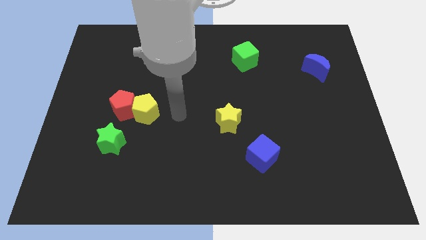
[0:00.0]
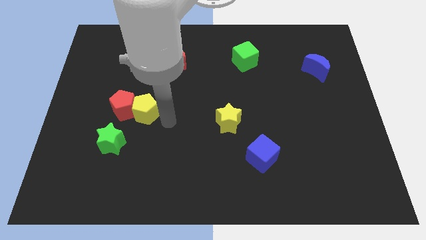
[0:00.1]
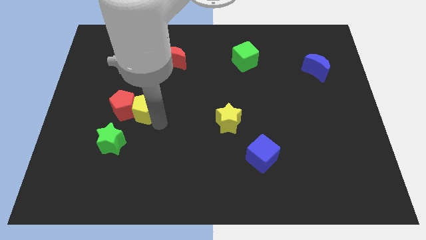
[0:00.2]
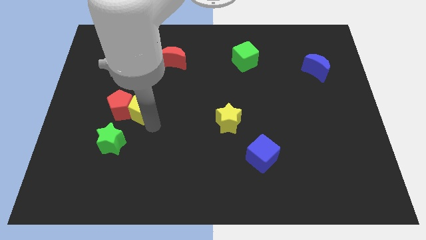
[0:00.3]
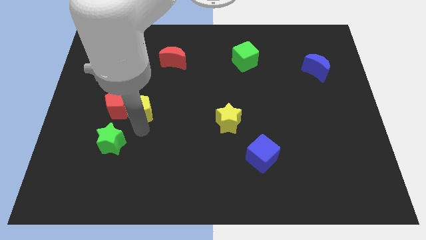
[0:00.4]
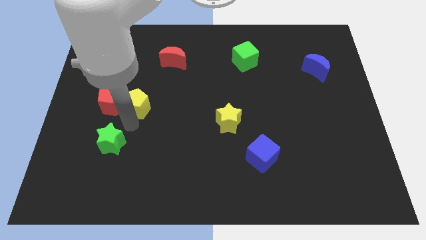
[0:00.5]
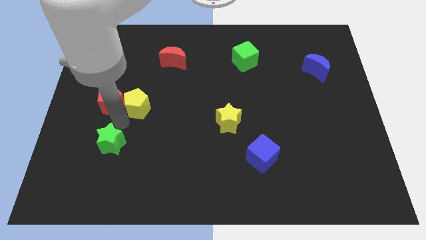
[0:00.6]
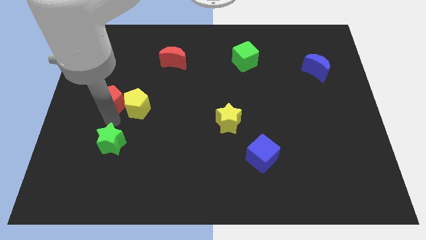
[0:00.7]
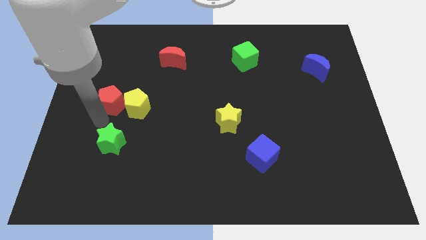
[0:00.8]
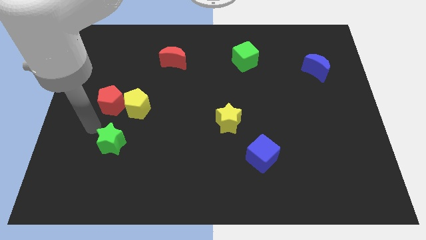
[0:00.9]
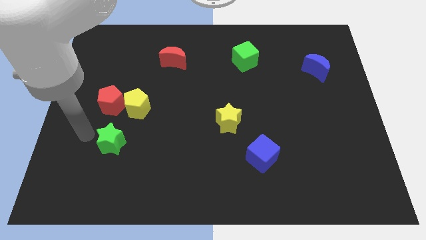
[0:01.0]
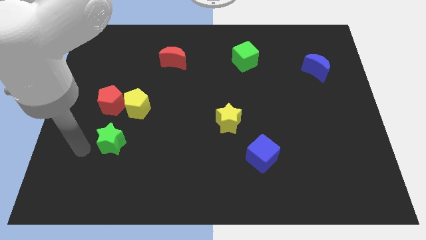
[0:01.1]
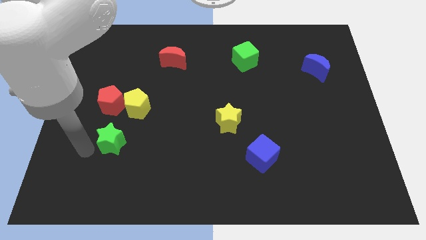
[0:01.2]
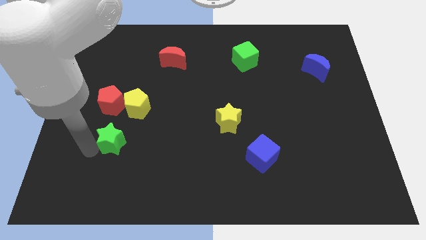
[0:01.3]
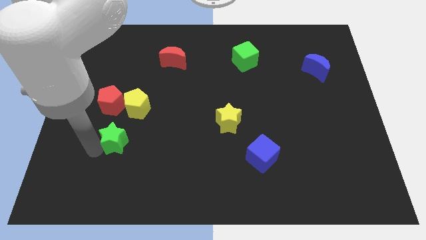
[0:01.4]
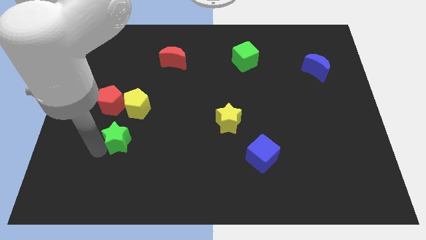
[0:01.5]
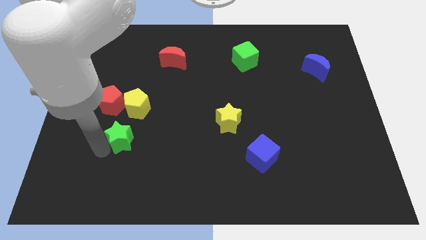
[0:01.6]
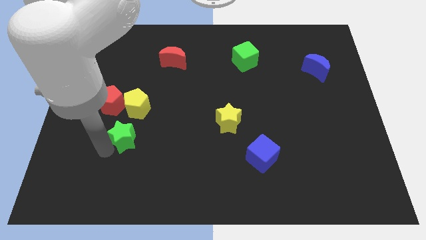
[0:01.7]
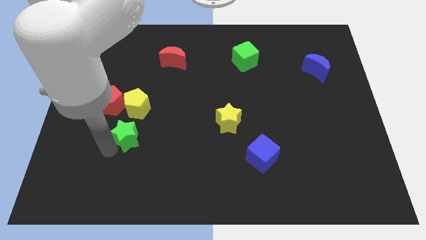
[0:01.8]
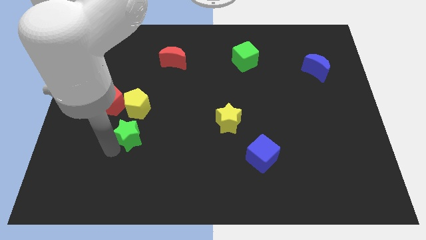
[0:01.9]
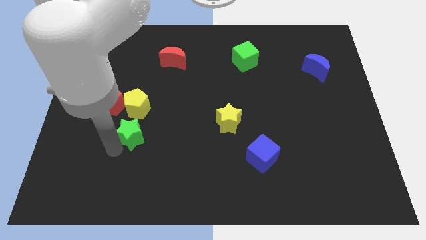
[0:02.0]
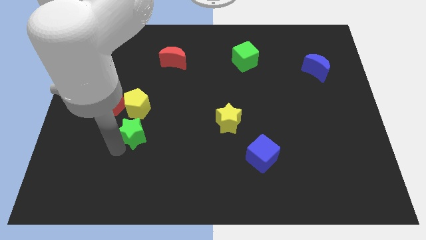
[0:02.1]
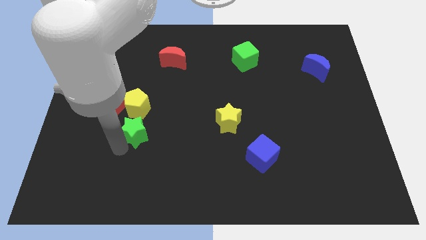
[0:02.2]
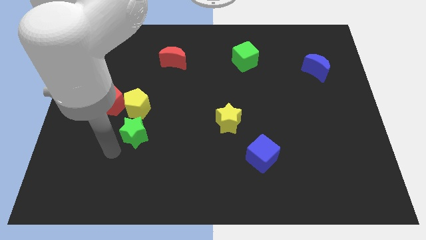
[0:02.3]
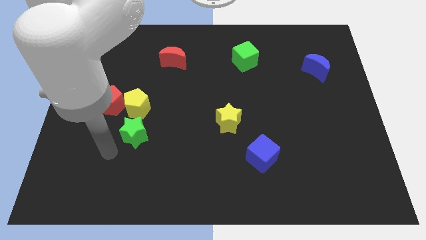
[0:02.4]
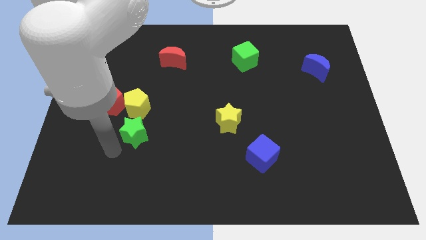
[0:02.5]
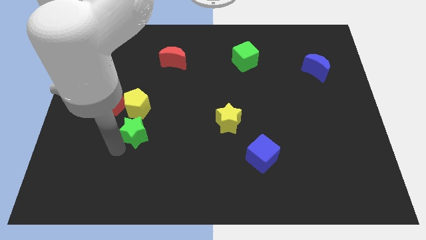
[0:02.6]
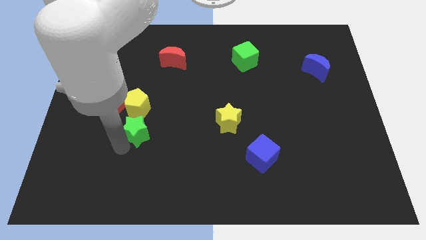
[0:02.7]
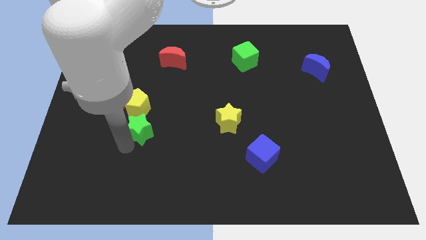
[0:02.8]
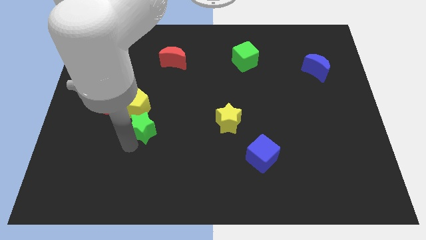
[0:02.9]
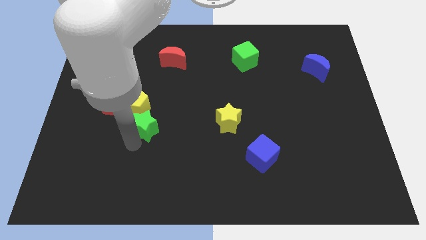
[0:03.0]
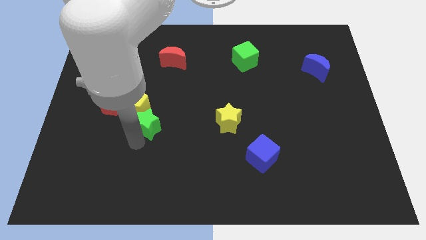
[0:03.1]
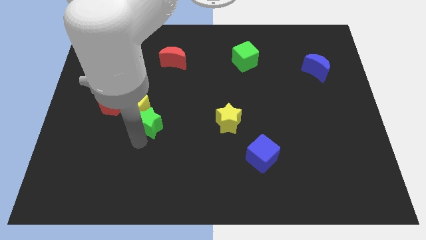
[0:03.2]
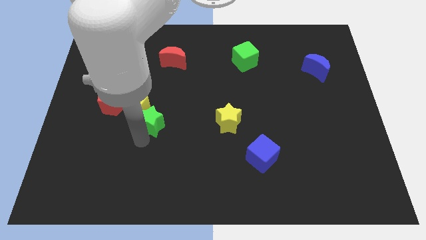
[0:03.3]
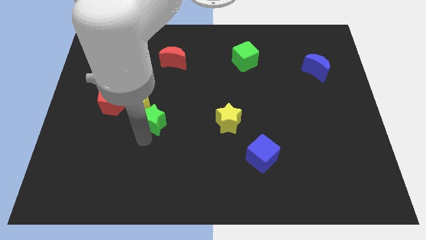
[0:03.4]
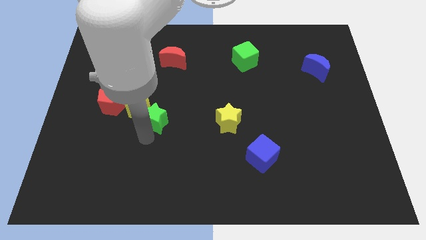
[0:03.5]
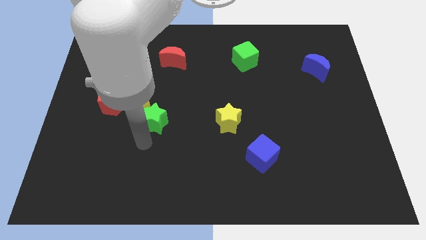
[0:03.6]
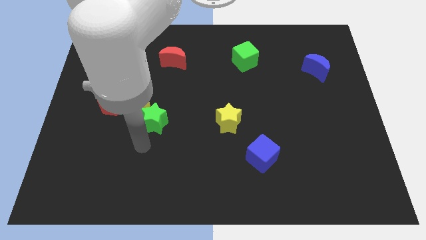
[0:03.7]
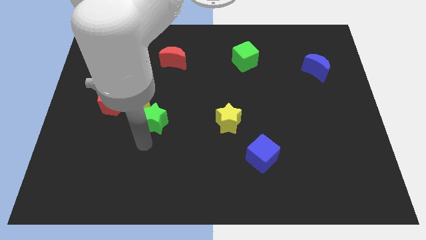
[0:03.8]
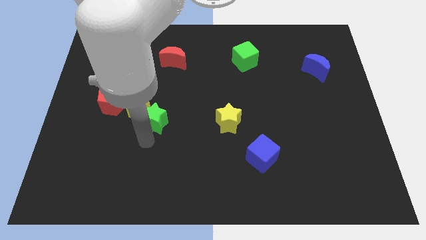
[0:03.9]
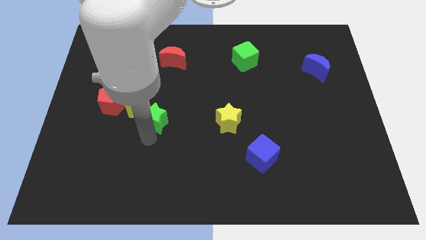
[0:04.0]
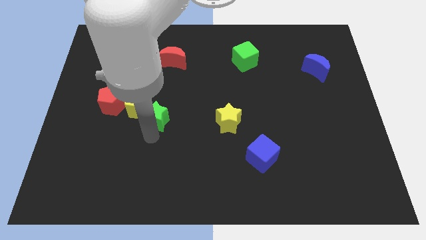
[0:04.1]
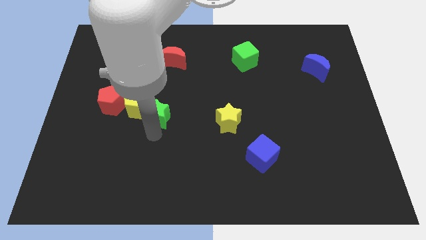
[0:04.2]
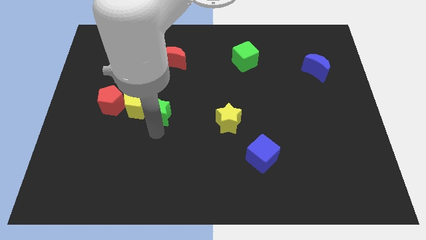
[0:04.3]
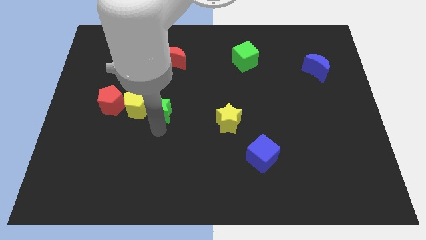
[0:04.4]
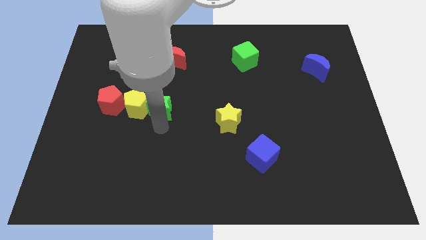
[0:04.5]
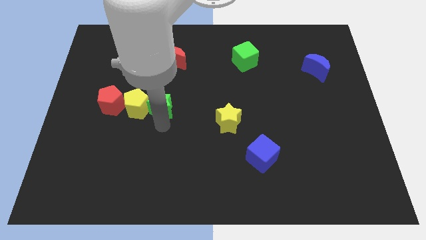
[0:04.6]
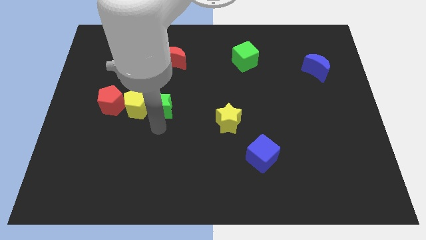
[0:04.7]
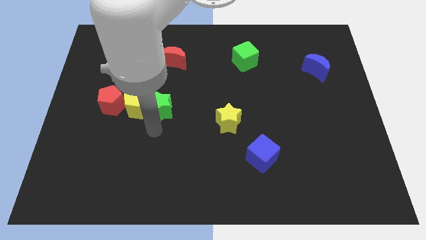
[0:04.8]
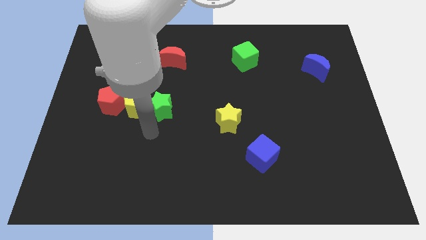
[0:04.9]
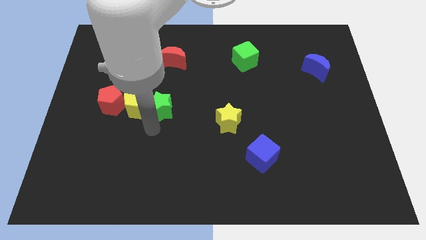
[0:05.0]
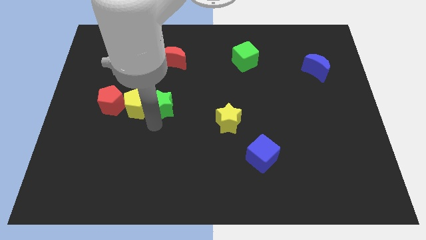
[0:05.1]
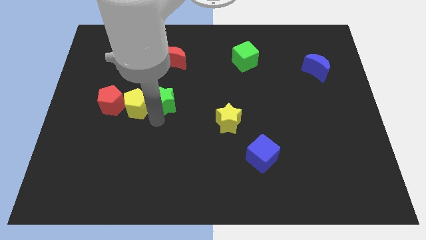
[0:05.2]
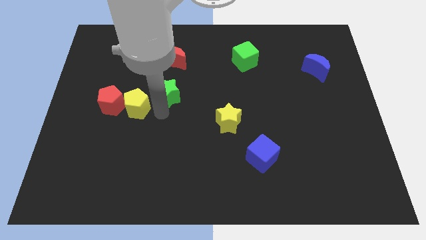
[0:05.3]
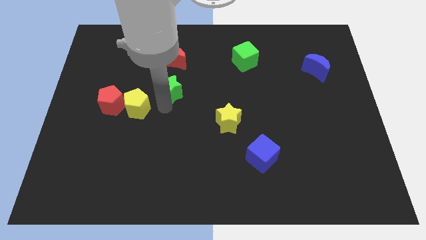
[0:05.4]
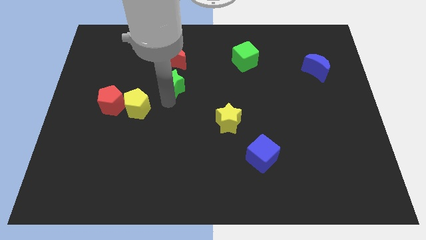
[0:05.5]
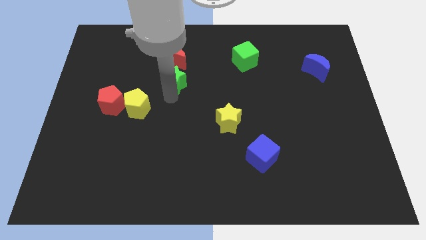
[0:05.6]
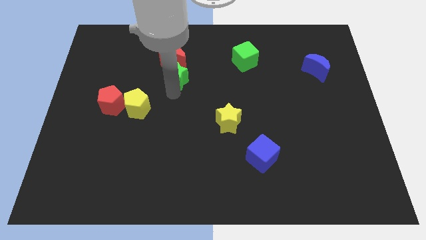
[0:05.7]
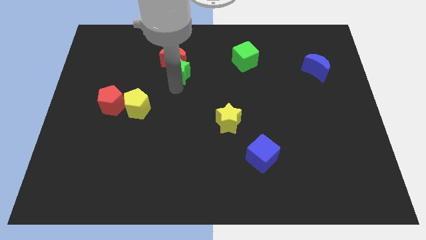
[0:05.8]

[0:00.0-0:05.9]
push the green star close to the red moon
